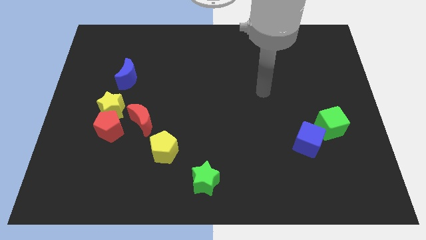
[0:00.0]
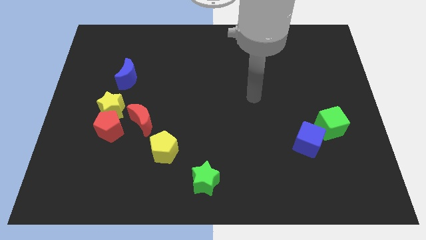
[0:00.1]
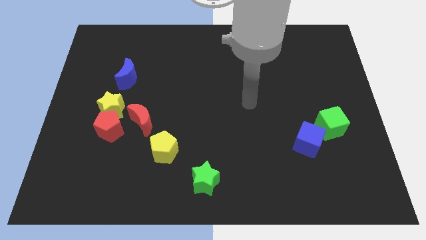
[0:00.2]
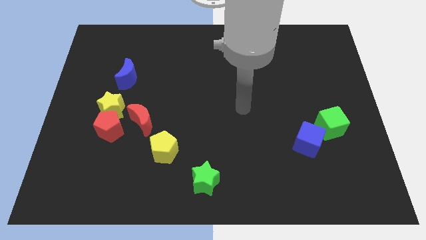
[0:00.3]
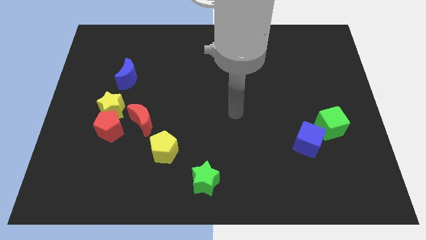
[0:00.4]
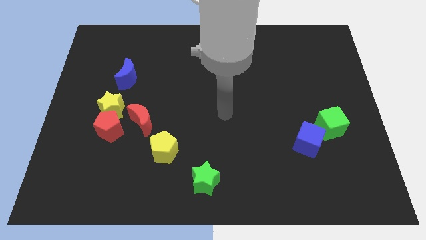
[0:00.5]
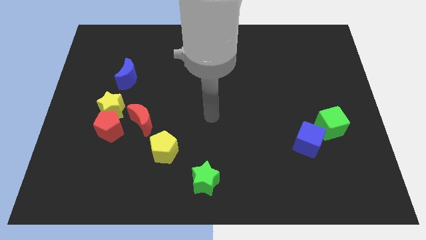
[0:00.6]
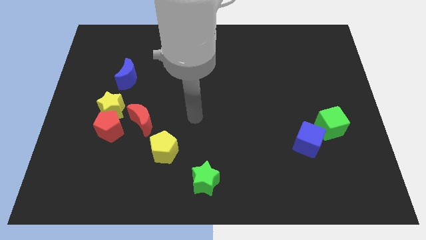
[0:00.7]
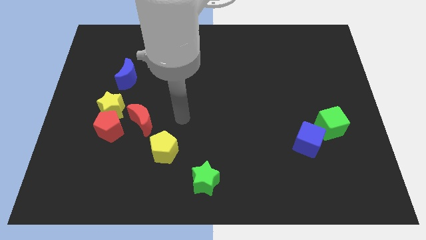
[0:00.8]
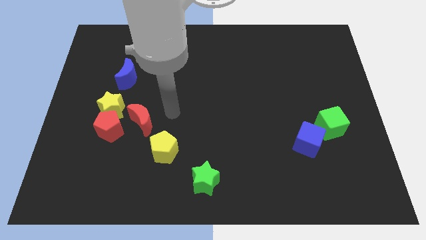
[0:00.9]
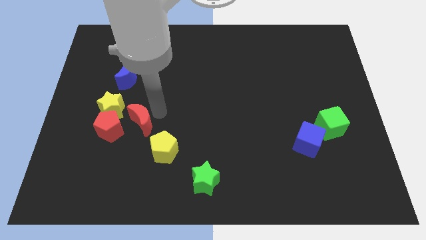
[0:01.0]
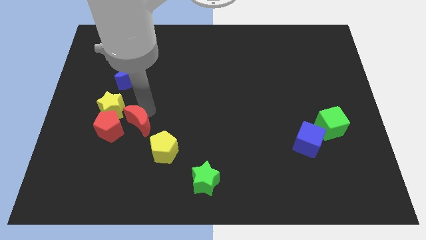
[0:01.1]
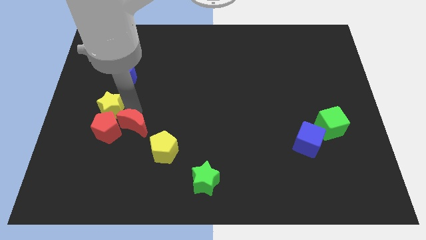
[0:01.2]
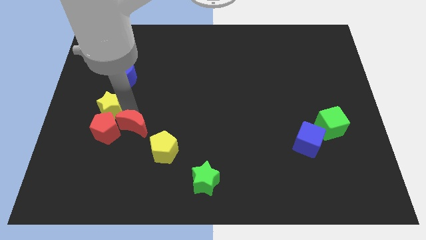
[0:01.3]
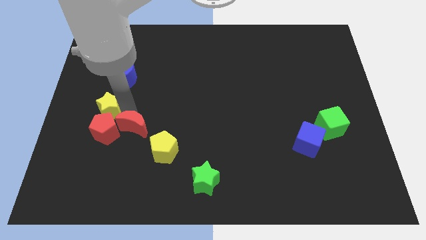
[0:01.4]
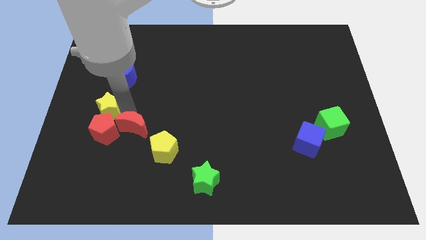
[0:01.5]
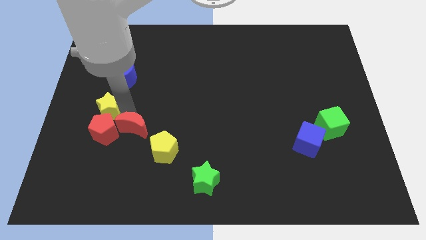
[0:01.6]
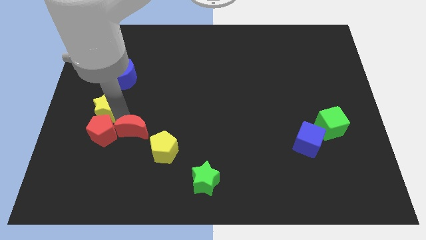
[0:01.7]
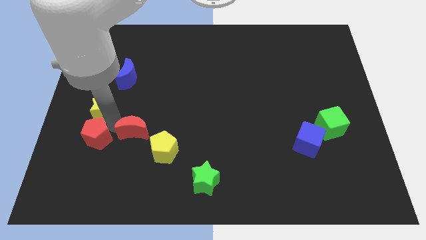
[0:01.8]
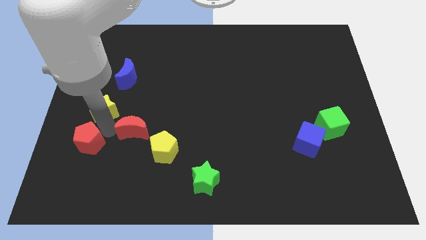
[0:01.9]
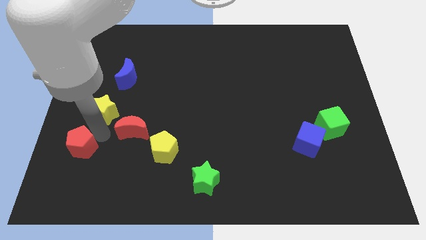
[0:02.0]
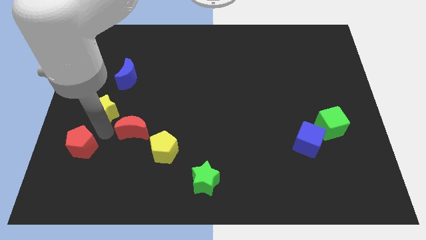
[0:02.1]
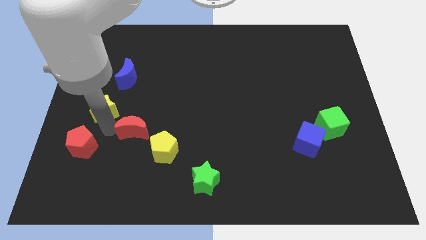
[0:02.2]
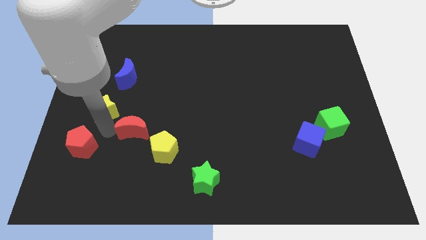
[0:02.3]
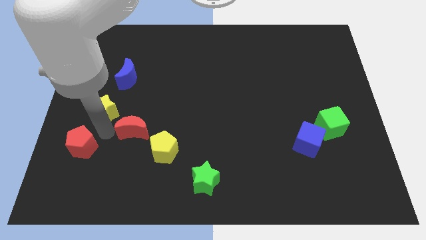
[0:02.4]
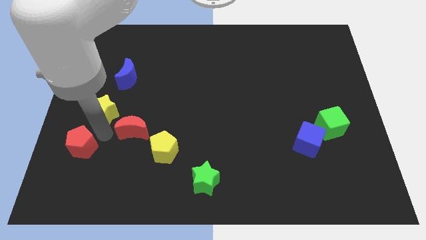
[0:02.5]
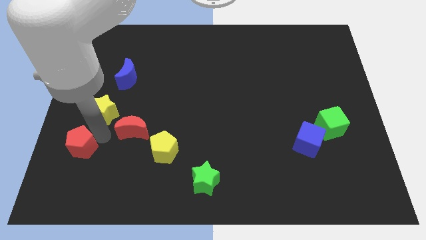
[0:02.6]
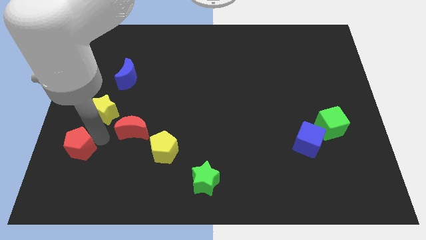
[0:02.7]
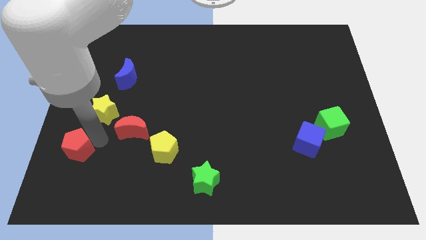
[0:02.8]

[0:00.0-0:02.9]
move the red pentagon away from the yellow star and red moon

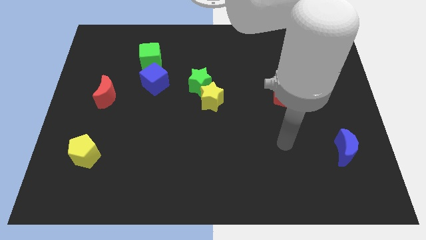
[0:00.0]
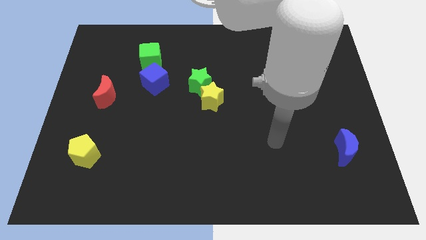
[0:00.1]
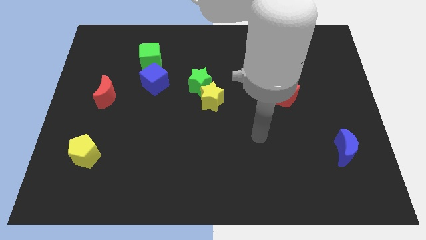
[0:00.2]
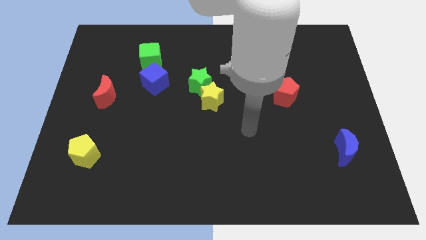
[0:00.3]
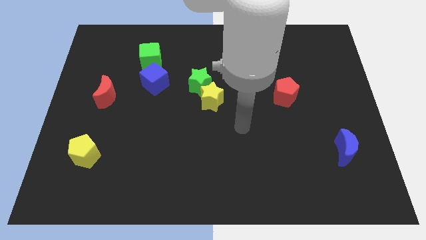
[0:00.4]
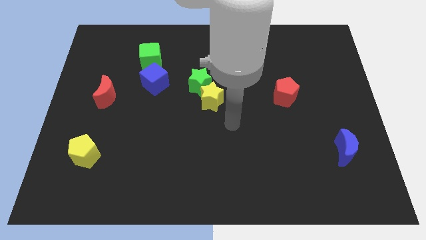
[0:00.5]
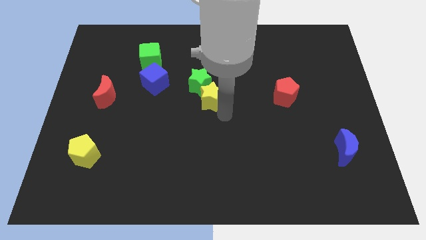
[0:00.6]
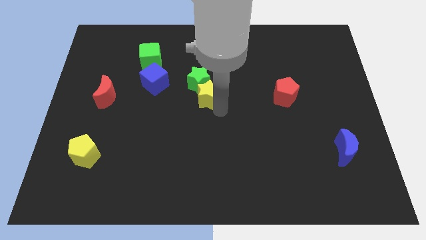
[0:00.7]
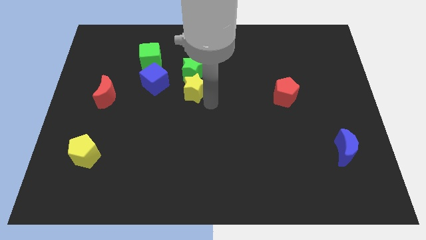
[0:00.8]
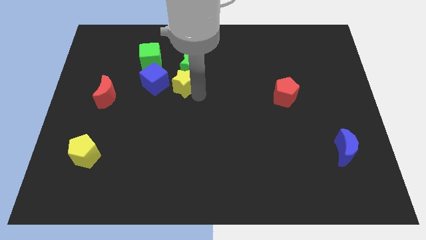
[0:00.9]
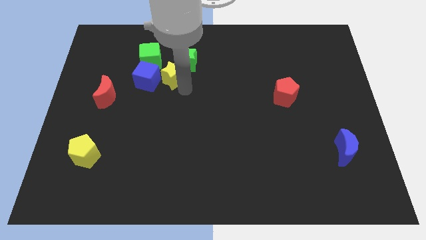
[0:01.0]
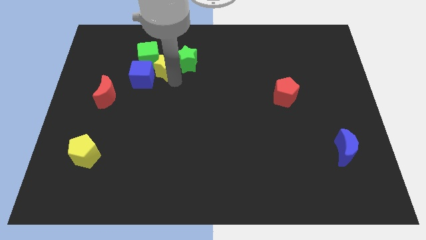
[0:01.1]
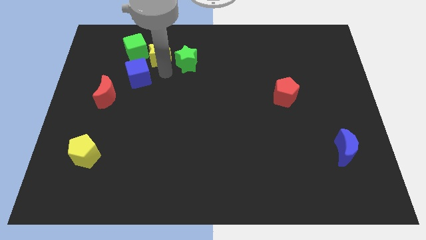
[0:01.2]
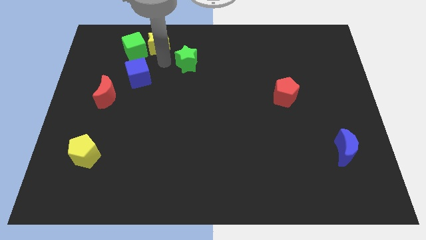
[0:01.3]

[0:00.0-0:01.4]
move the green star away from the yellow star

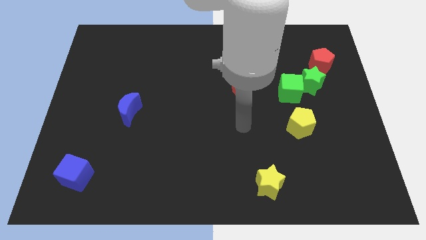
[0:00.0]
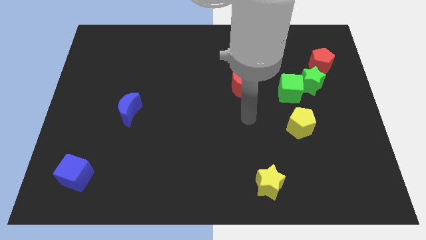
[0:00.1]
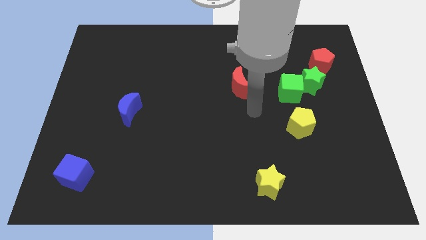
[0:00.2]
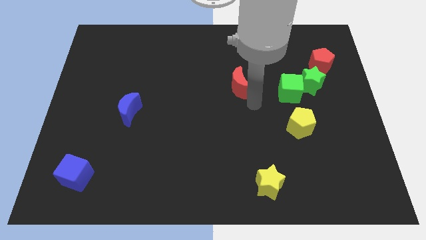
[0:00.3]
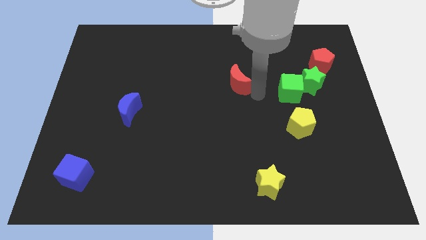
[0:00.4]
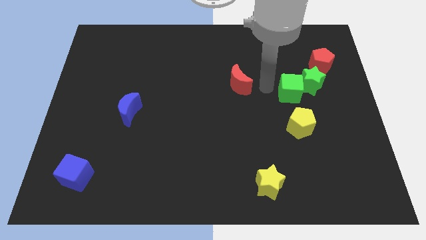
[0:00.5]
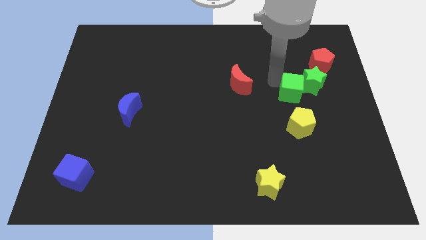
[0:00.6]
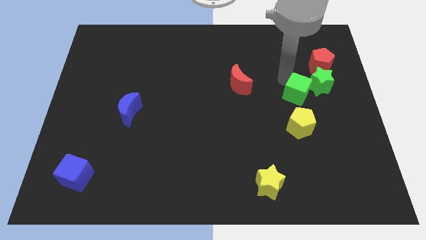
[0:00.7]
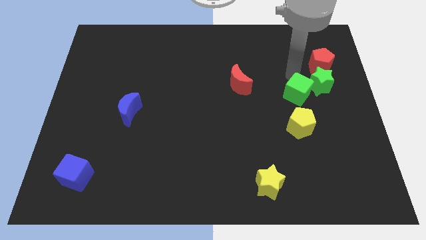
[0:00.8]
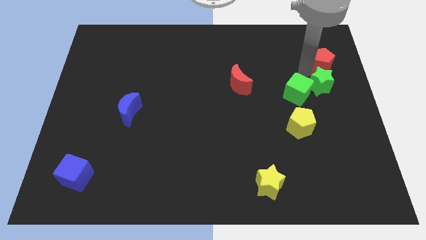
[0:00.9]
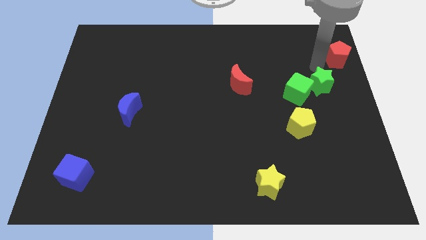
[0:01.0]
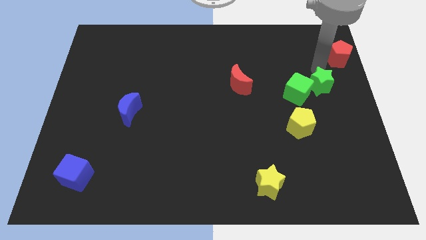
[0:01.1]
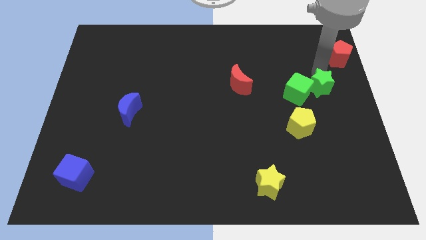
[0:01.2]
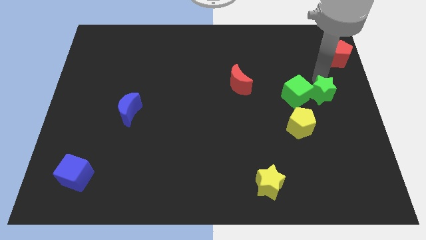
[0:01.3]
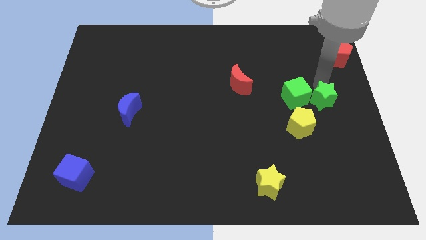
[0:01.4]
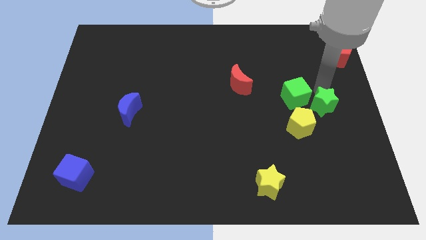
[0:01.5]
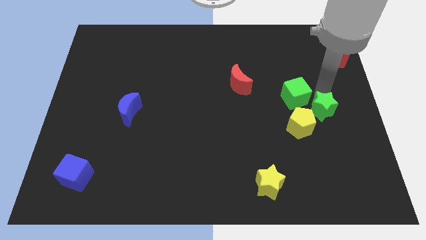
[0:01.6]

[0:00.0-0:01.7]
separate the green star from the green cube and red pentagon

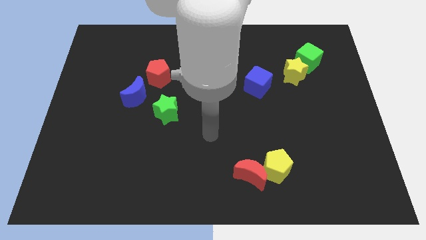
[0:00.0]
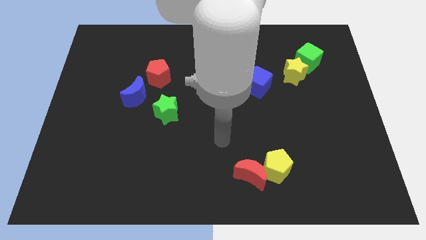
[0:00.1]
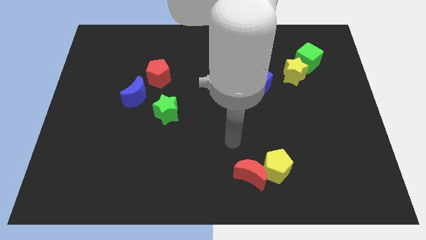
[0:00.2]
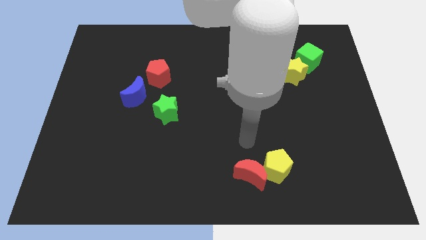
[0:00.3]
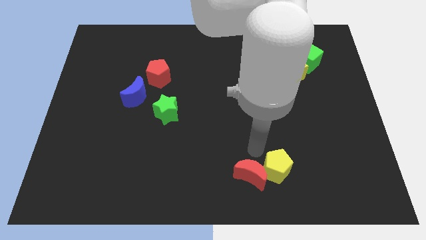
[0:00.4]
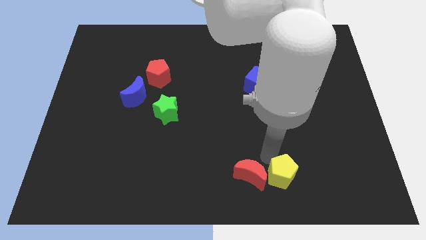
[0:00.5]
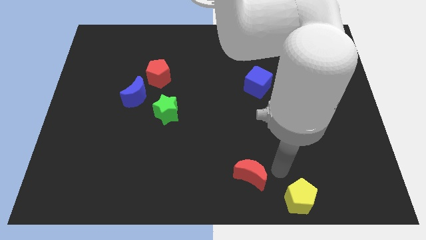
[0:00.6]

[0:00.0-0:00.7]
pull the red moon apart from the yellow pentagon

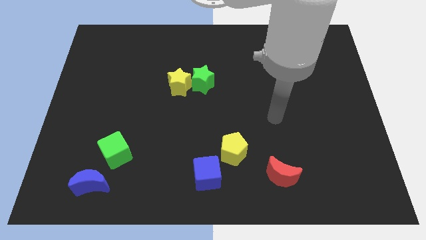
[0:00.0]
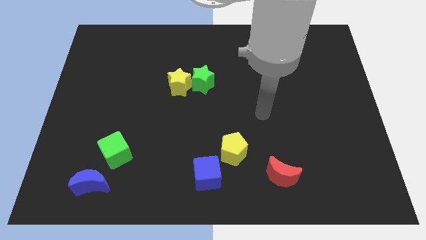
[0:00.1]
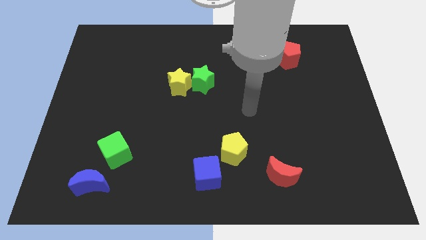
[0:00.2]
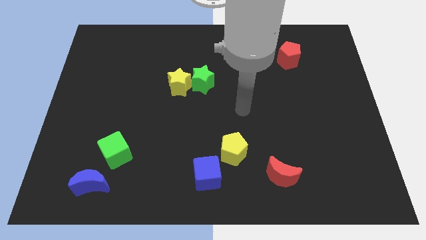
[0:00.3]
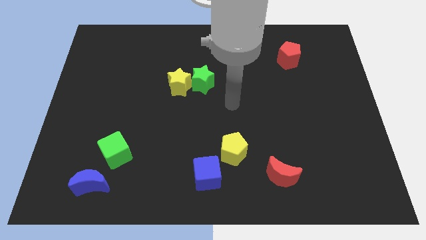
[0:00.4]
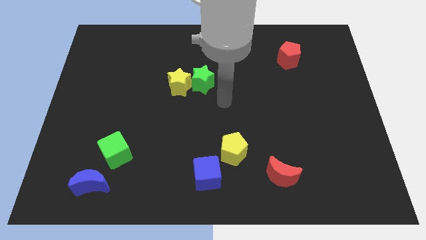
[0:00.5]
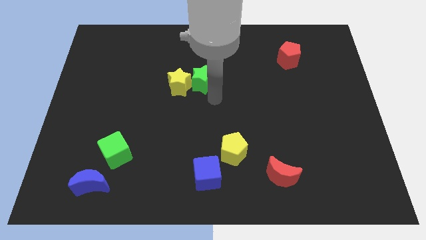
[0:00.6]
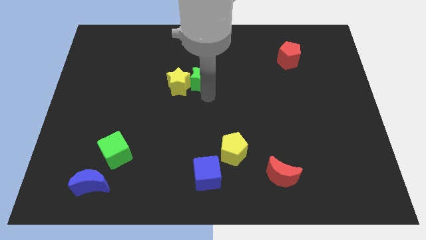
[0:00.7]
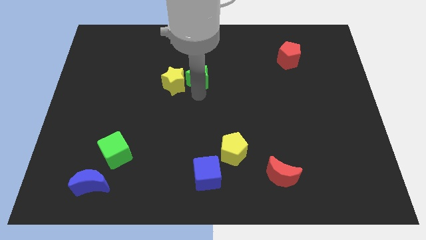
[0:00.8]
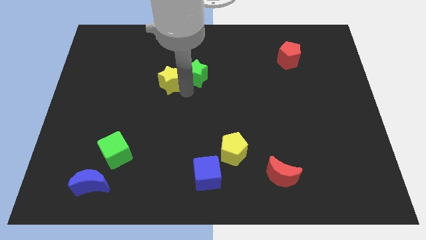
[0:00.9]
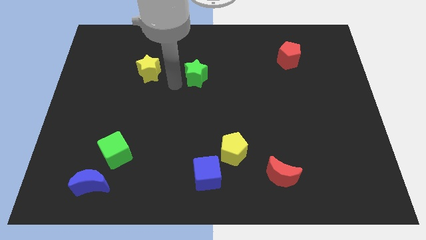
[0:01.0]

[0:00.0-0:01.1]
separate the green star from the yellow star

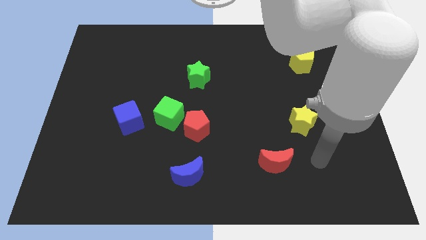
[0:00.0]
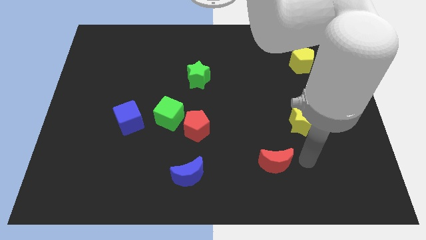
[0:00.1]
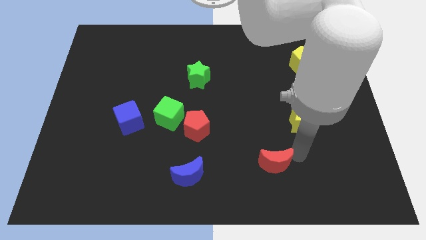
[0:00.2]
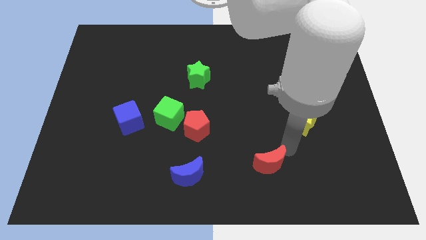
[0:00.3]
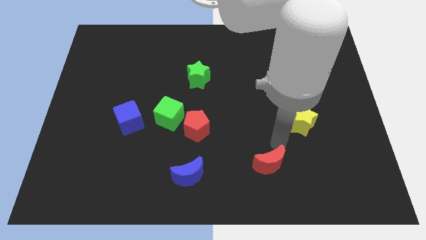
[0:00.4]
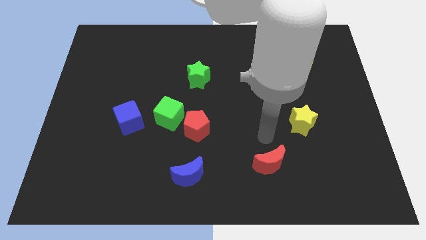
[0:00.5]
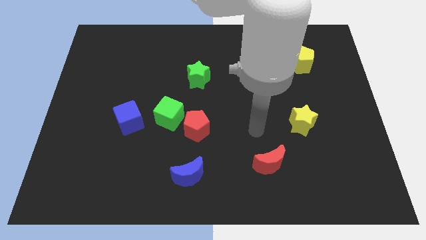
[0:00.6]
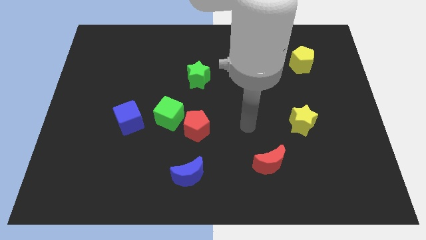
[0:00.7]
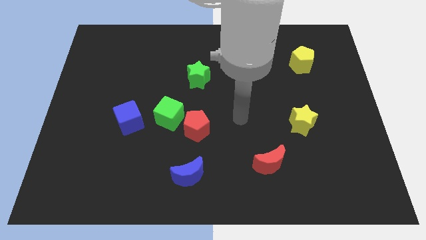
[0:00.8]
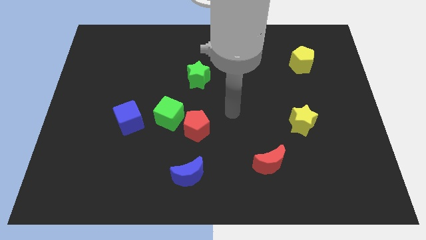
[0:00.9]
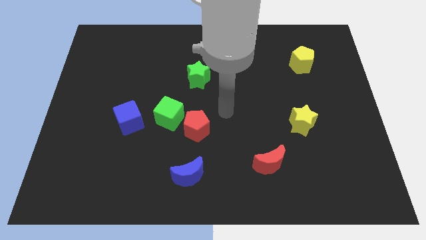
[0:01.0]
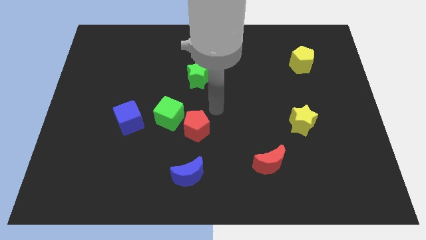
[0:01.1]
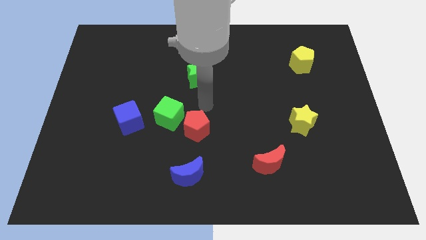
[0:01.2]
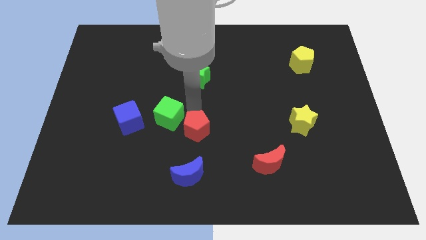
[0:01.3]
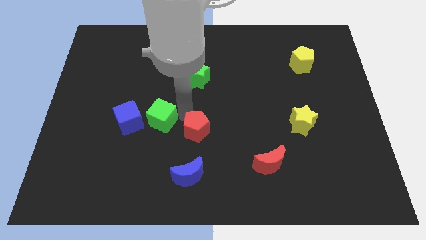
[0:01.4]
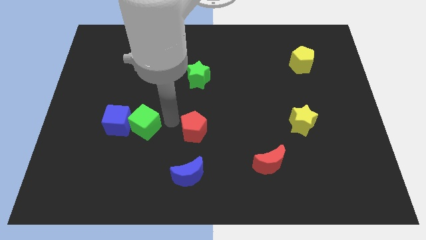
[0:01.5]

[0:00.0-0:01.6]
move the red pentagon away from the green cube
